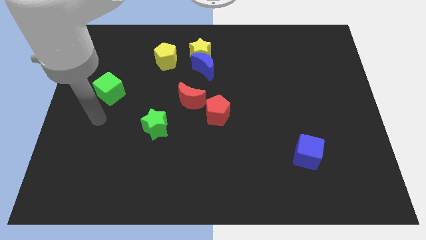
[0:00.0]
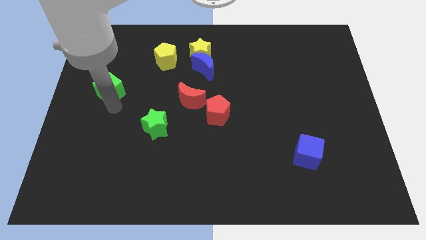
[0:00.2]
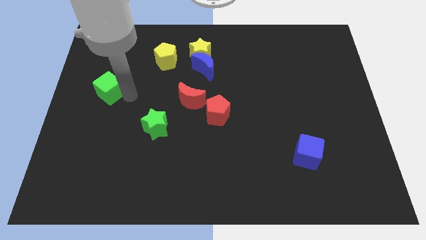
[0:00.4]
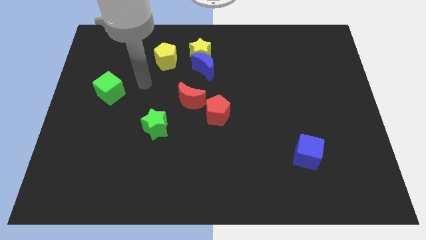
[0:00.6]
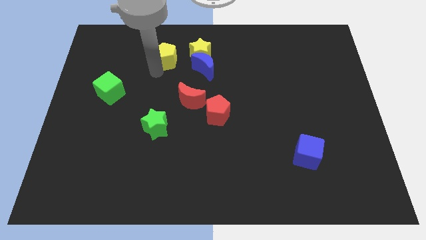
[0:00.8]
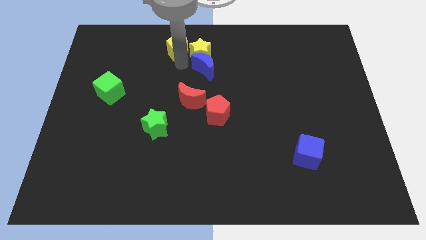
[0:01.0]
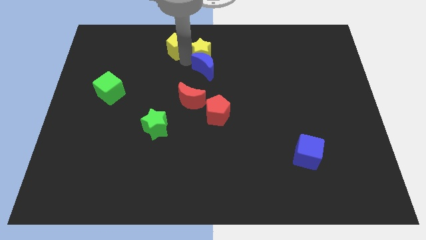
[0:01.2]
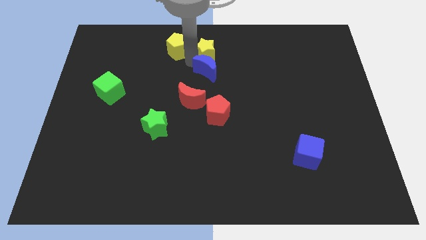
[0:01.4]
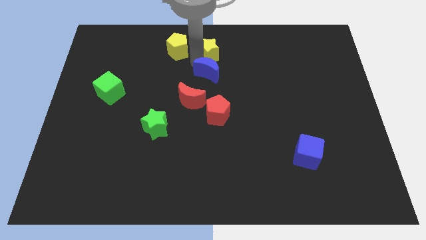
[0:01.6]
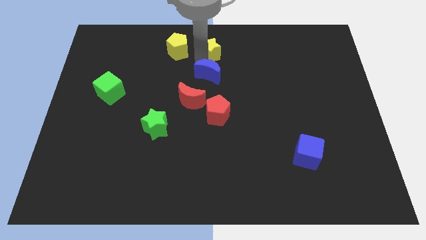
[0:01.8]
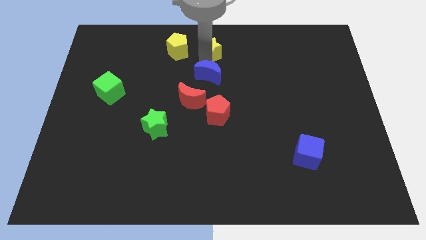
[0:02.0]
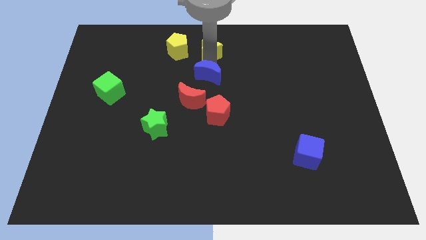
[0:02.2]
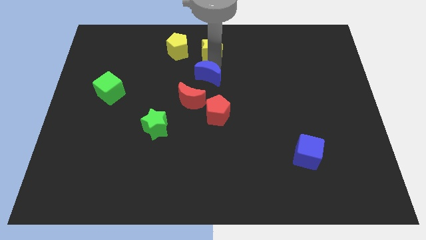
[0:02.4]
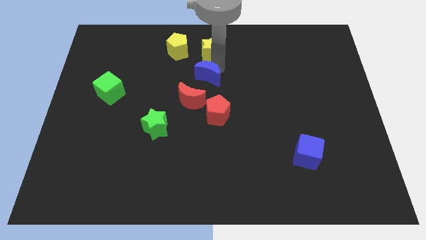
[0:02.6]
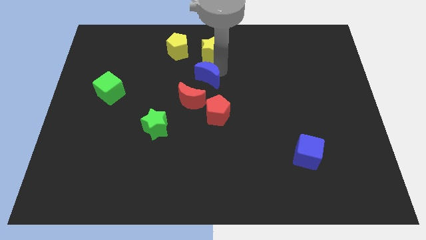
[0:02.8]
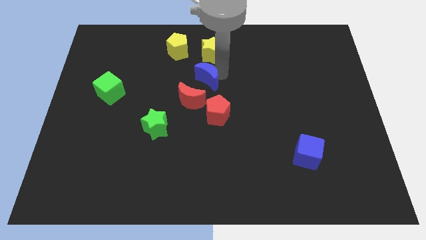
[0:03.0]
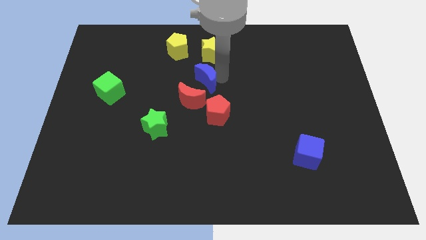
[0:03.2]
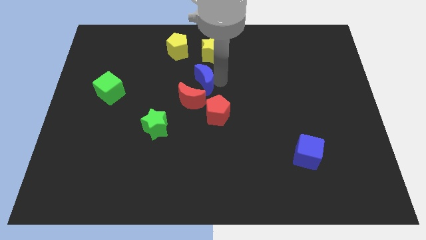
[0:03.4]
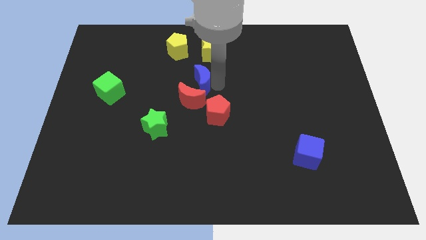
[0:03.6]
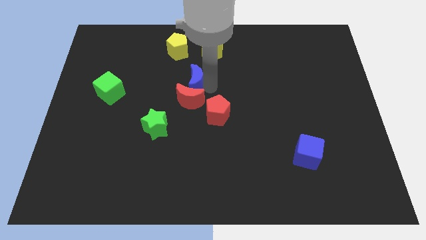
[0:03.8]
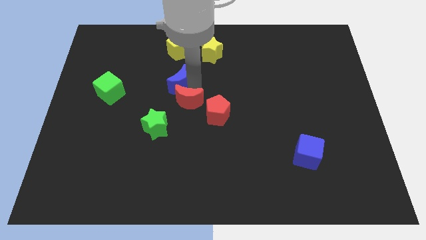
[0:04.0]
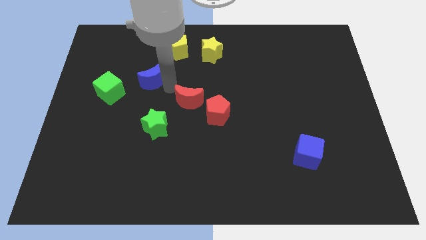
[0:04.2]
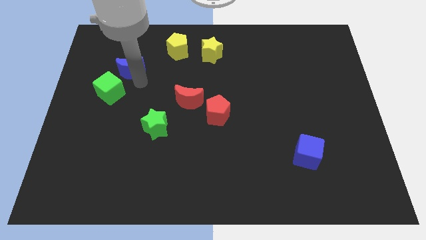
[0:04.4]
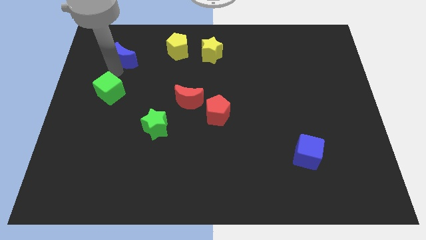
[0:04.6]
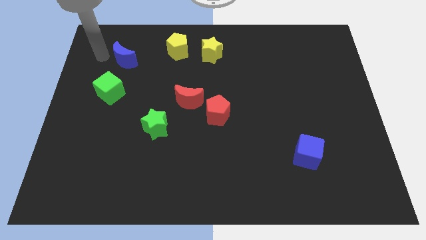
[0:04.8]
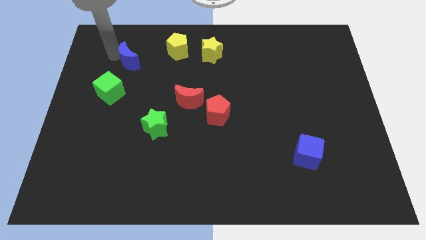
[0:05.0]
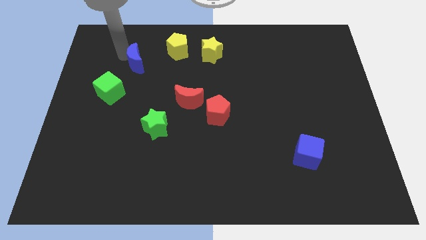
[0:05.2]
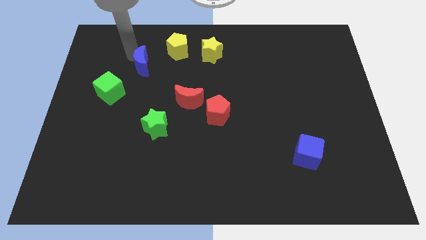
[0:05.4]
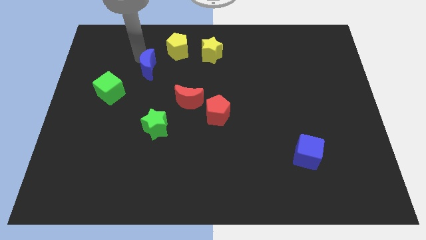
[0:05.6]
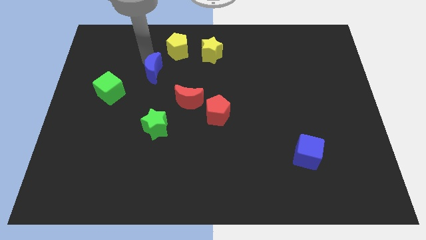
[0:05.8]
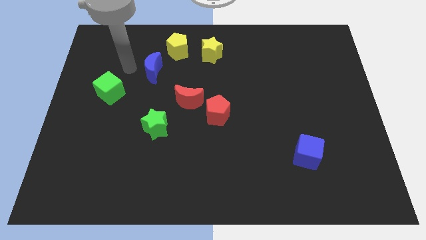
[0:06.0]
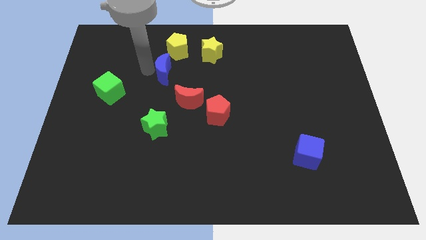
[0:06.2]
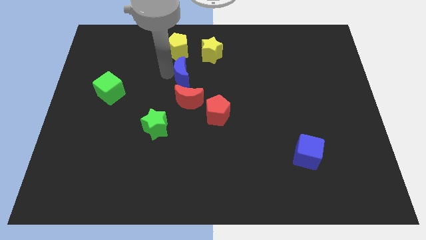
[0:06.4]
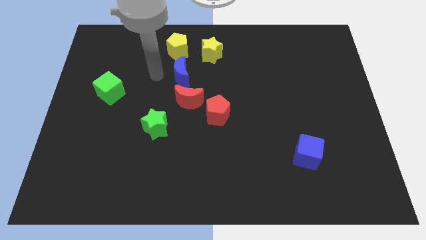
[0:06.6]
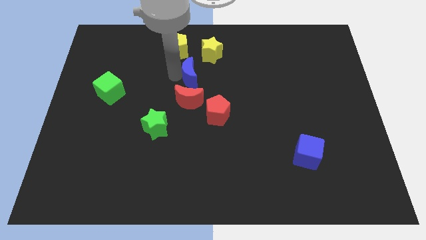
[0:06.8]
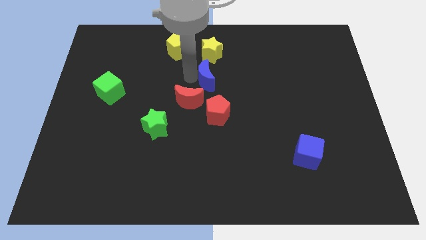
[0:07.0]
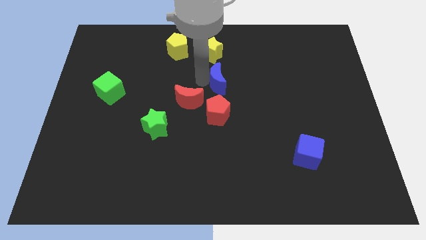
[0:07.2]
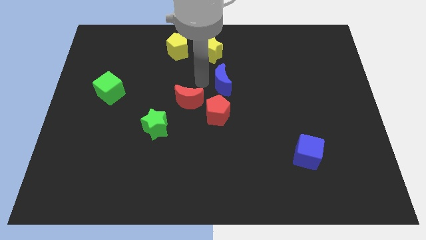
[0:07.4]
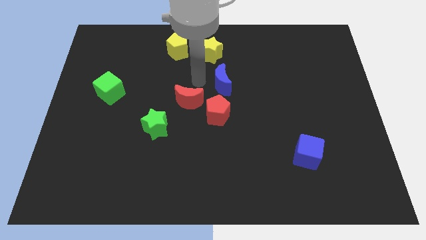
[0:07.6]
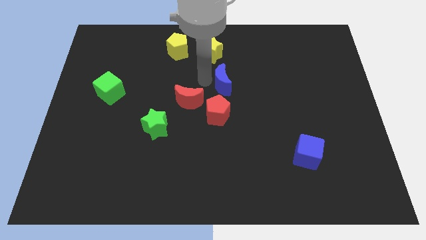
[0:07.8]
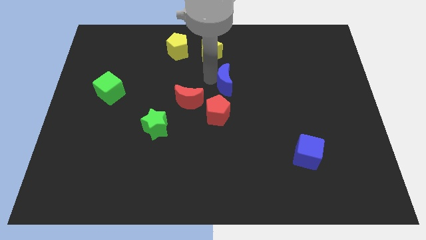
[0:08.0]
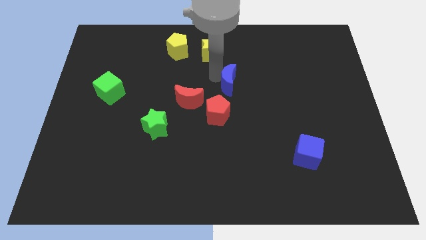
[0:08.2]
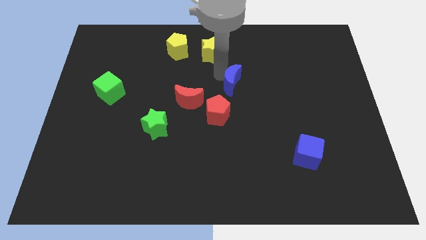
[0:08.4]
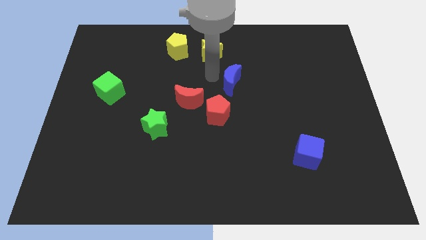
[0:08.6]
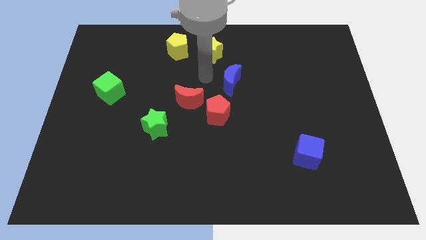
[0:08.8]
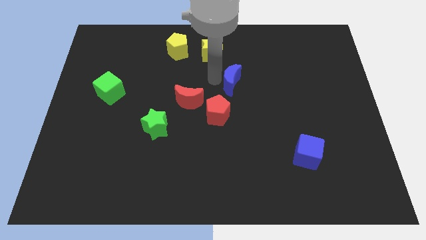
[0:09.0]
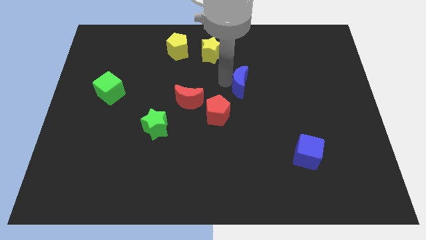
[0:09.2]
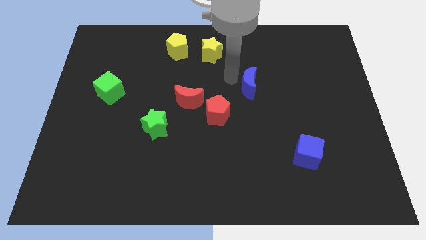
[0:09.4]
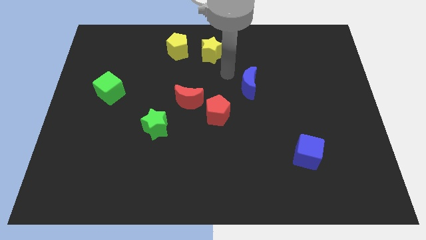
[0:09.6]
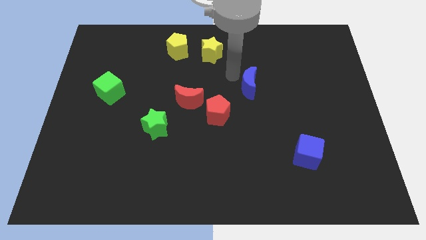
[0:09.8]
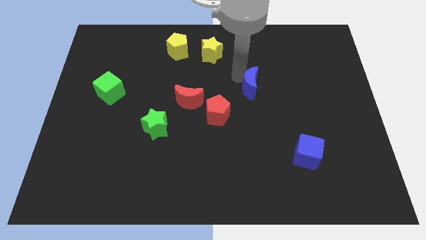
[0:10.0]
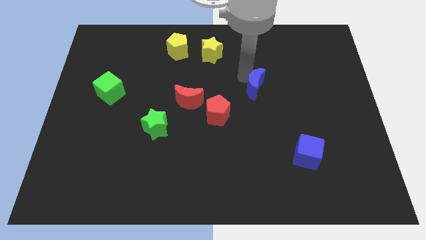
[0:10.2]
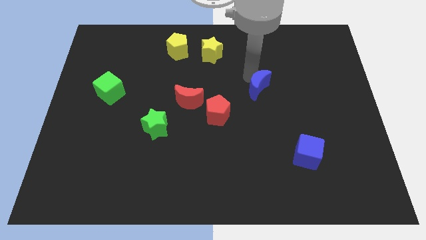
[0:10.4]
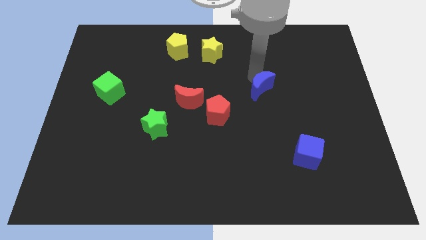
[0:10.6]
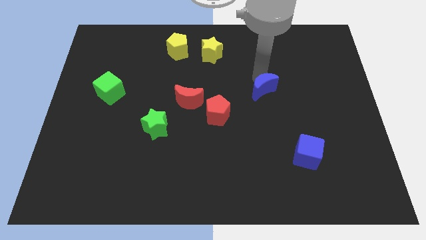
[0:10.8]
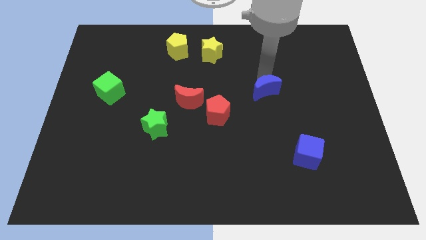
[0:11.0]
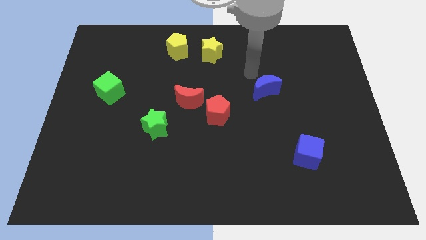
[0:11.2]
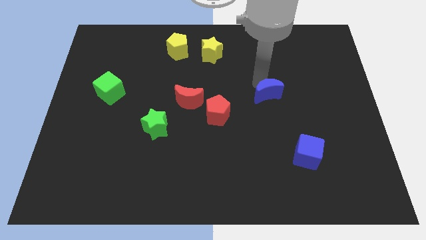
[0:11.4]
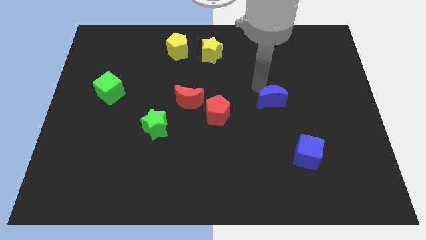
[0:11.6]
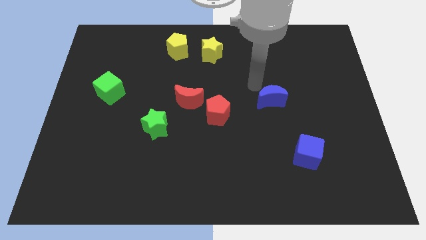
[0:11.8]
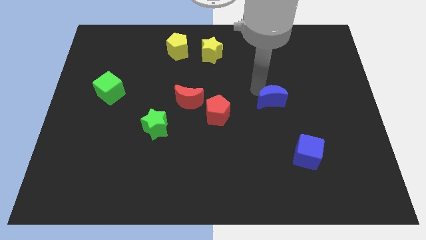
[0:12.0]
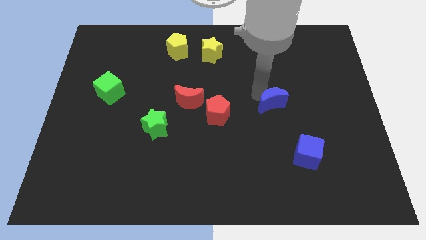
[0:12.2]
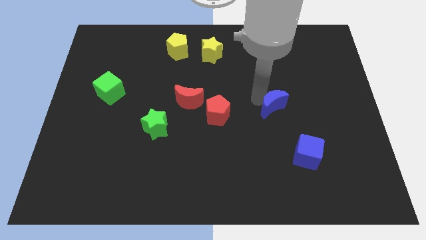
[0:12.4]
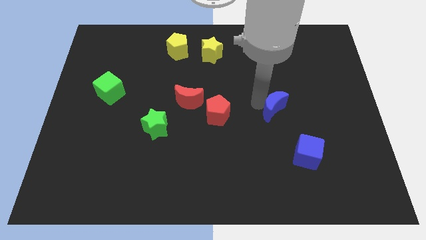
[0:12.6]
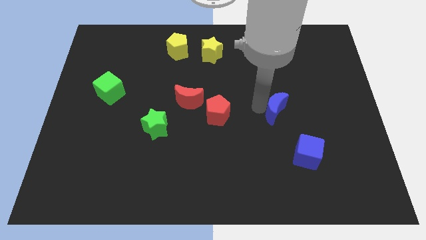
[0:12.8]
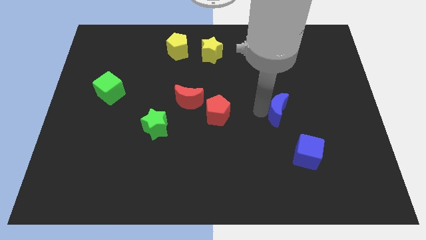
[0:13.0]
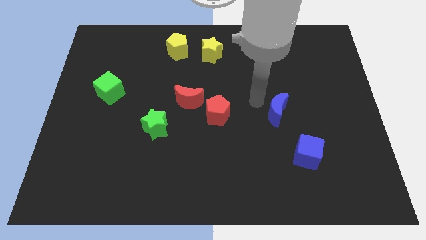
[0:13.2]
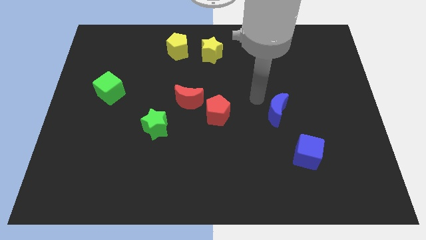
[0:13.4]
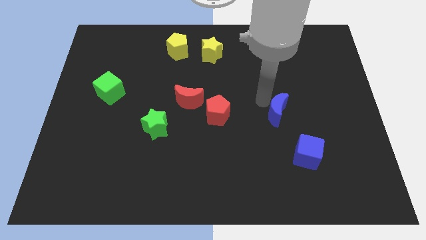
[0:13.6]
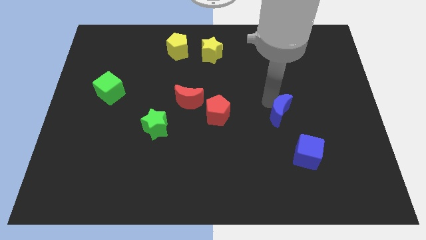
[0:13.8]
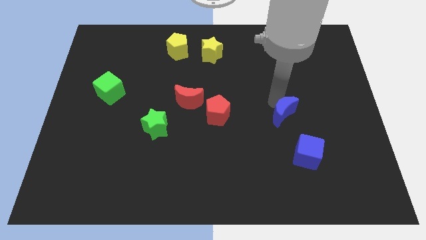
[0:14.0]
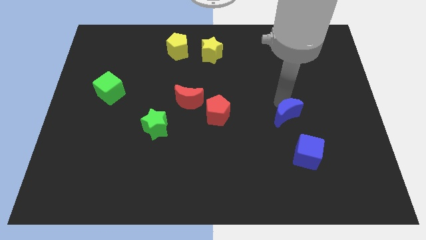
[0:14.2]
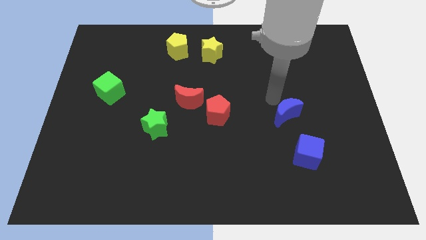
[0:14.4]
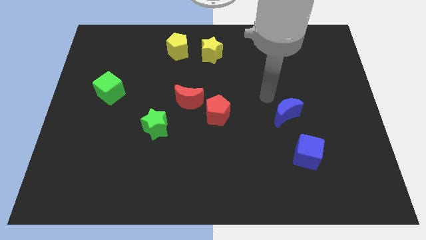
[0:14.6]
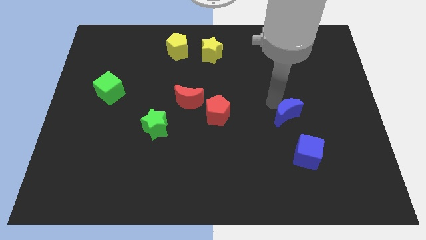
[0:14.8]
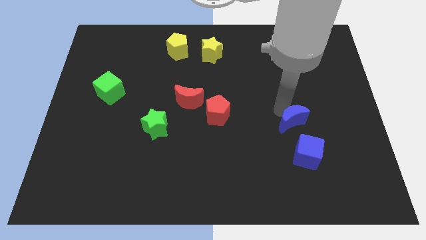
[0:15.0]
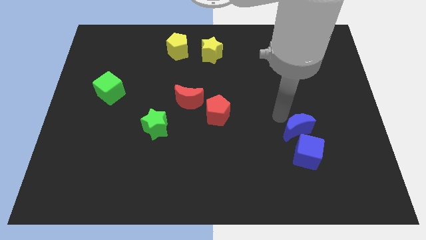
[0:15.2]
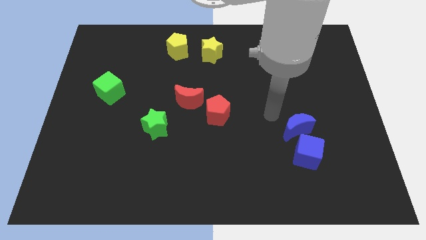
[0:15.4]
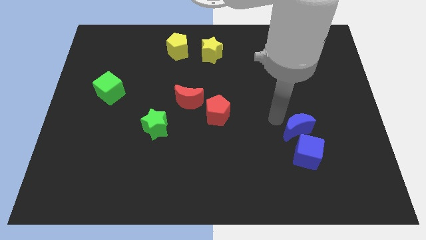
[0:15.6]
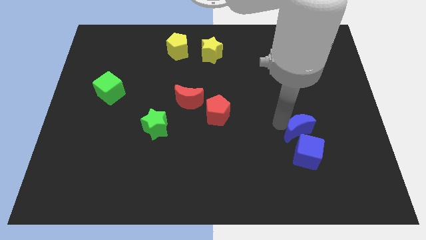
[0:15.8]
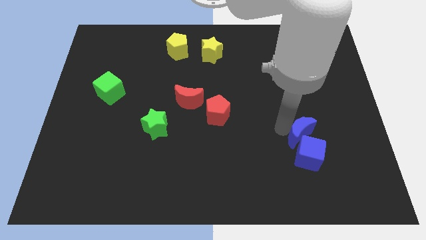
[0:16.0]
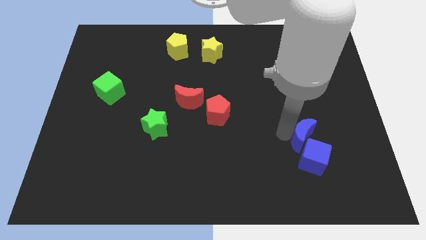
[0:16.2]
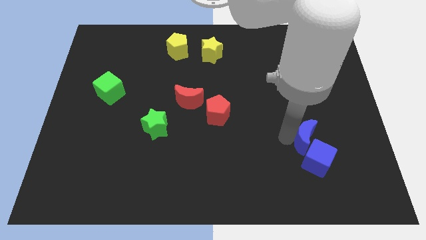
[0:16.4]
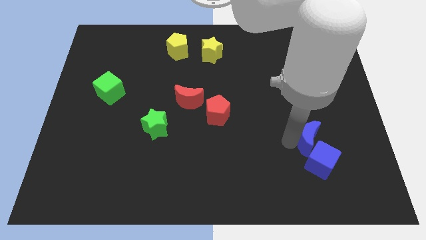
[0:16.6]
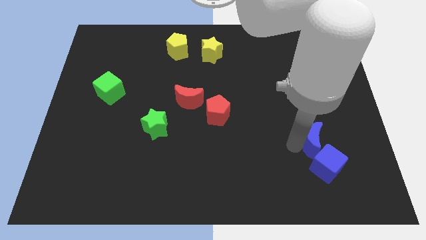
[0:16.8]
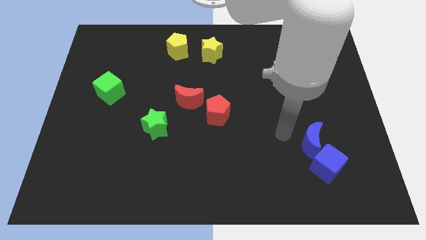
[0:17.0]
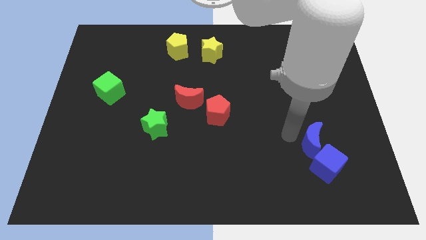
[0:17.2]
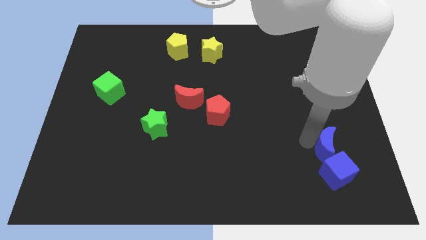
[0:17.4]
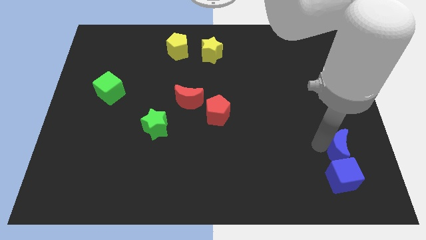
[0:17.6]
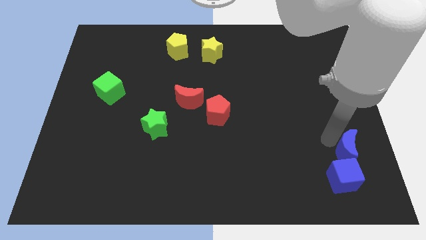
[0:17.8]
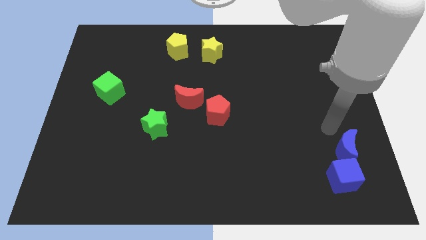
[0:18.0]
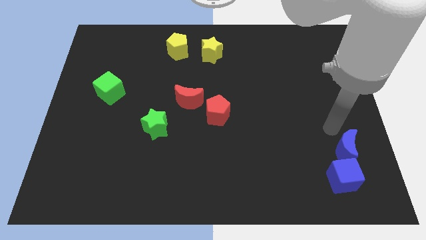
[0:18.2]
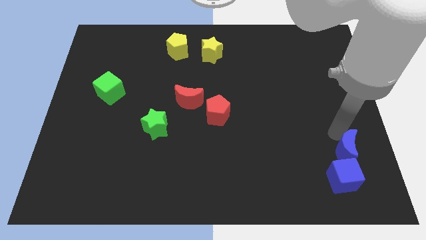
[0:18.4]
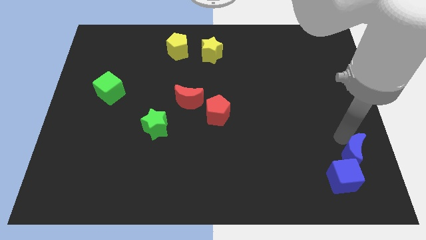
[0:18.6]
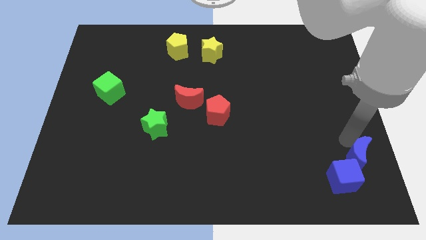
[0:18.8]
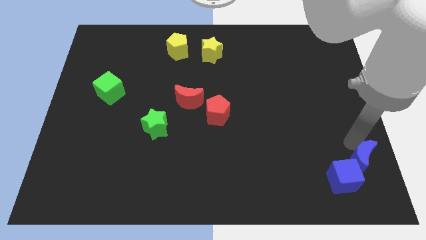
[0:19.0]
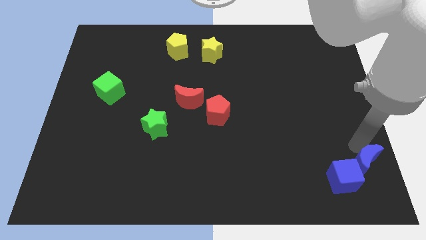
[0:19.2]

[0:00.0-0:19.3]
move the blue moon to the bottom right of the board
